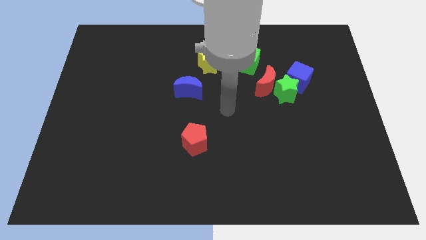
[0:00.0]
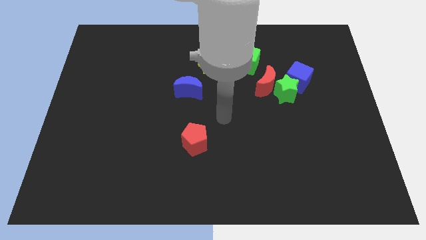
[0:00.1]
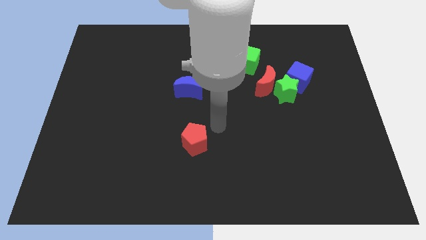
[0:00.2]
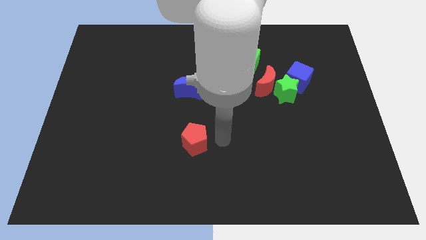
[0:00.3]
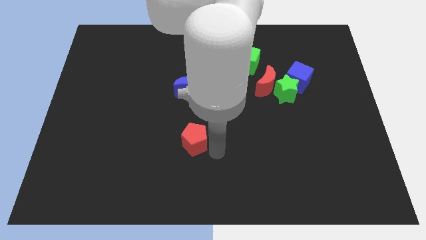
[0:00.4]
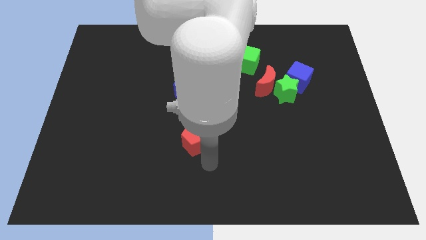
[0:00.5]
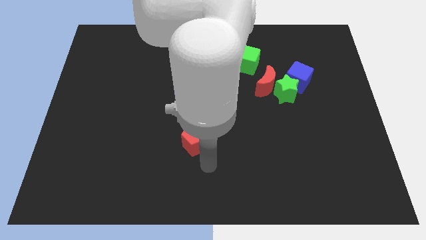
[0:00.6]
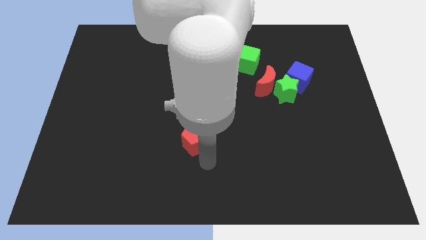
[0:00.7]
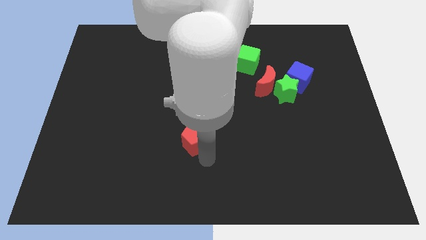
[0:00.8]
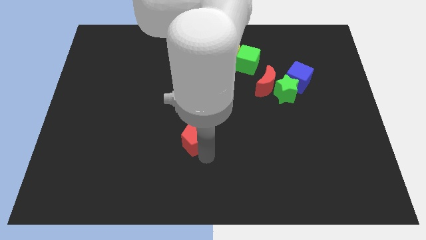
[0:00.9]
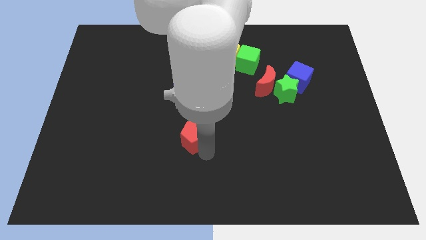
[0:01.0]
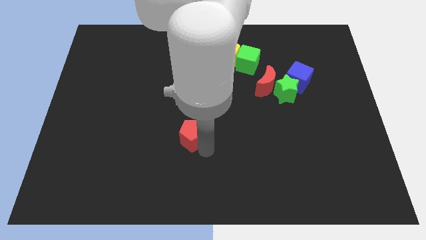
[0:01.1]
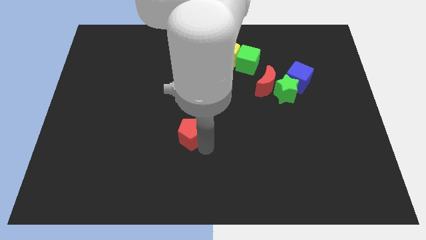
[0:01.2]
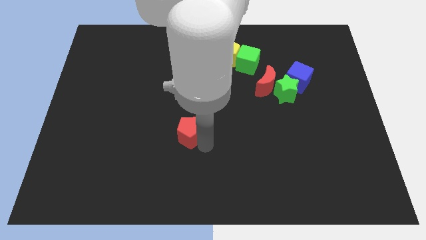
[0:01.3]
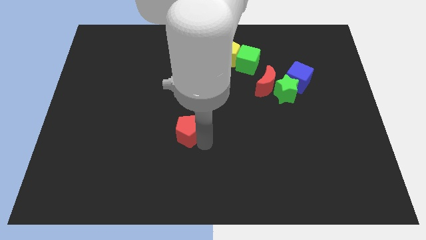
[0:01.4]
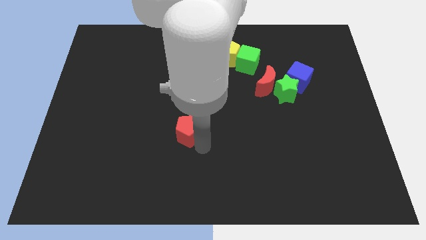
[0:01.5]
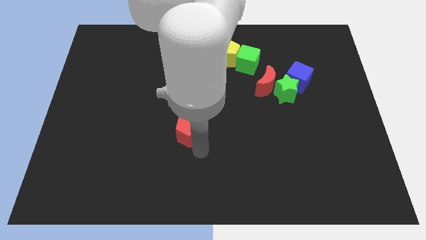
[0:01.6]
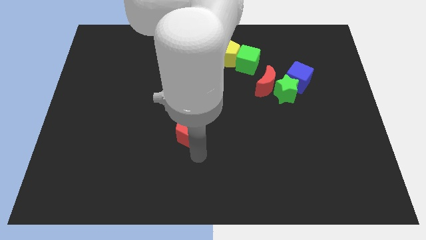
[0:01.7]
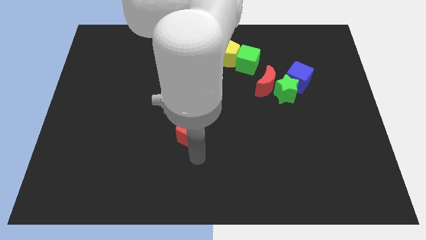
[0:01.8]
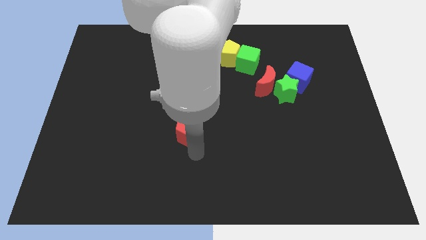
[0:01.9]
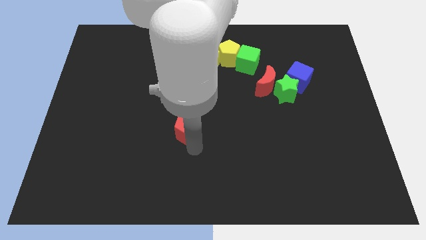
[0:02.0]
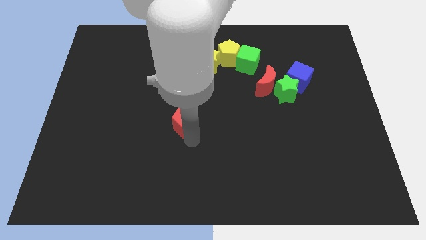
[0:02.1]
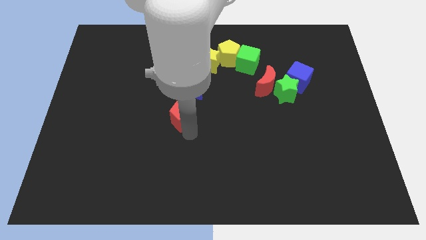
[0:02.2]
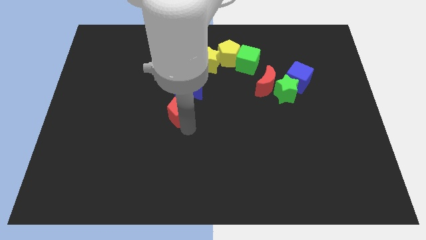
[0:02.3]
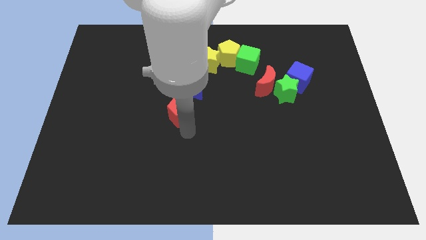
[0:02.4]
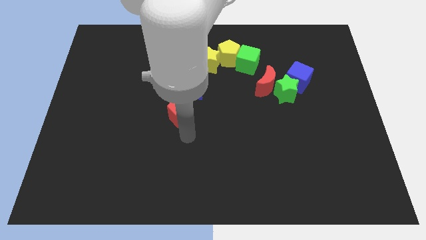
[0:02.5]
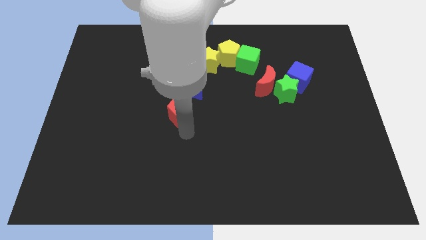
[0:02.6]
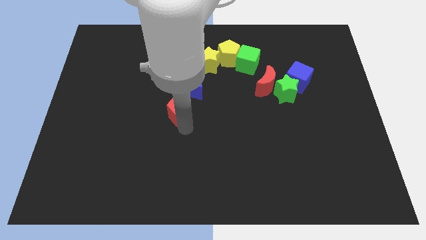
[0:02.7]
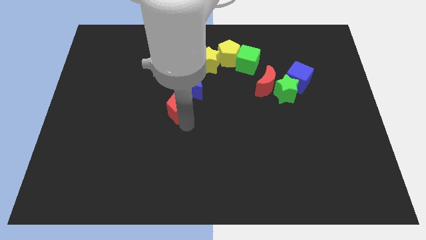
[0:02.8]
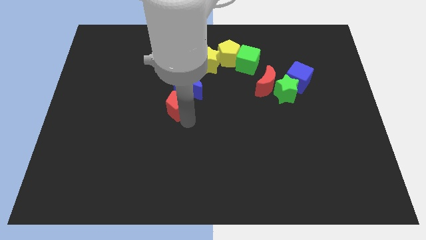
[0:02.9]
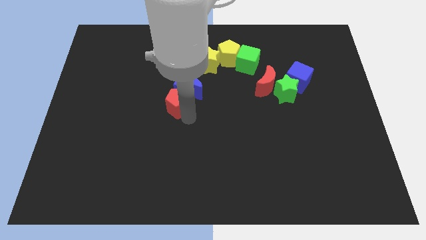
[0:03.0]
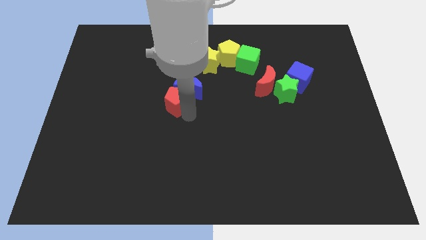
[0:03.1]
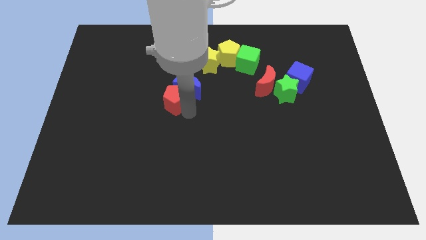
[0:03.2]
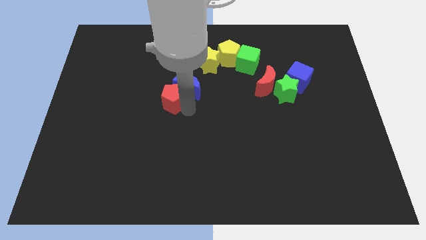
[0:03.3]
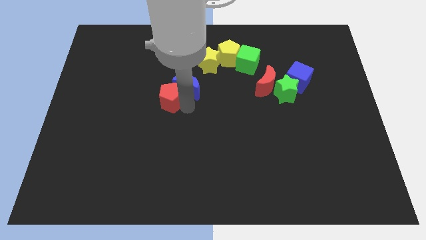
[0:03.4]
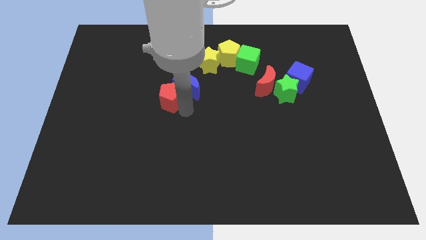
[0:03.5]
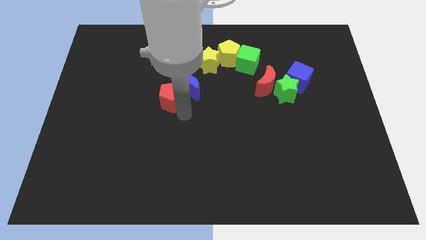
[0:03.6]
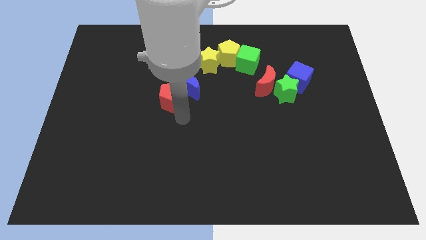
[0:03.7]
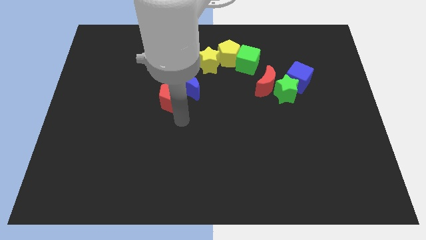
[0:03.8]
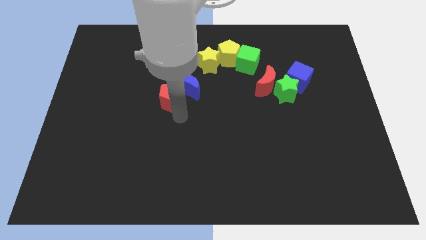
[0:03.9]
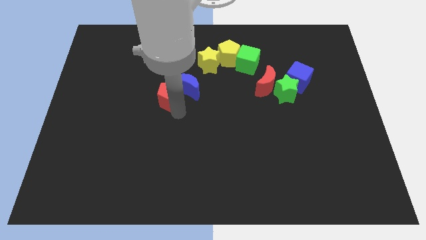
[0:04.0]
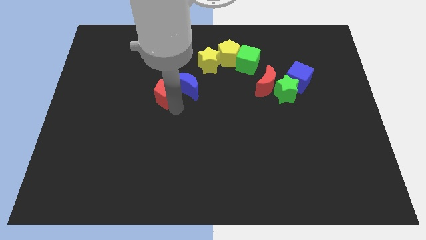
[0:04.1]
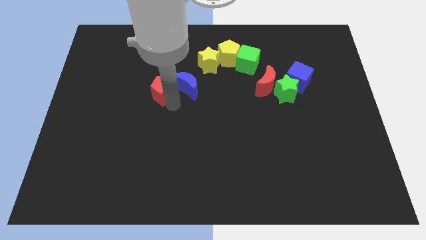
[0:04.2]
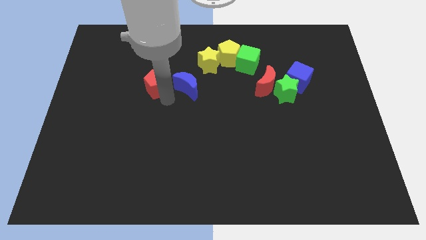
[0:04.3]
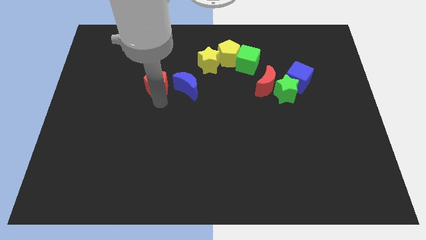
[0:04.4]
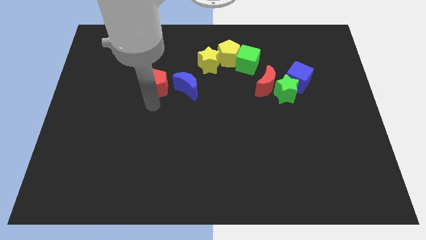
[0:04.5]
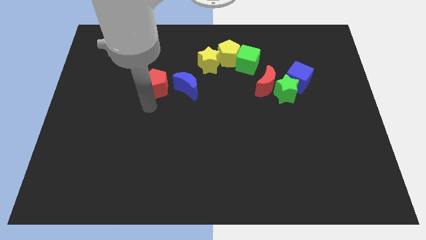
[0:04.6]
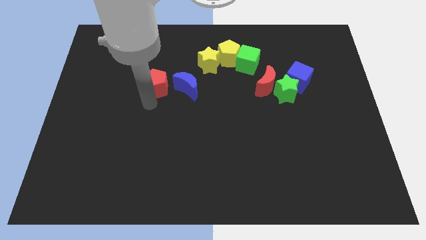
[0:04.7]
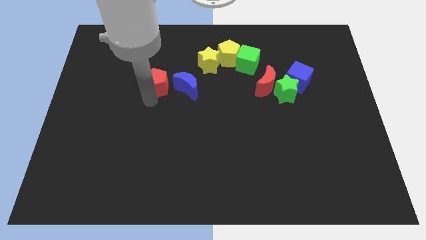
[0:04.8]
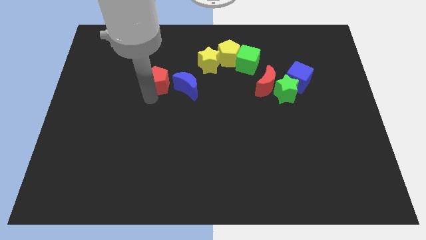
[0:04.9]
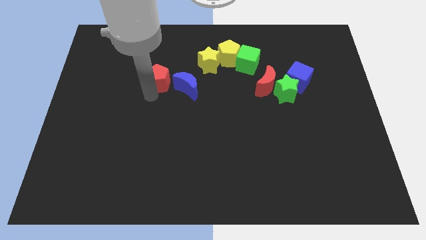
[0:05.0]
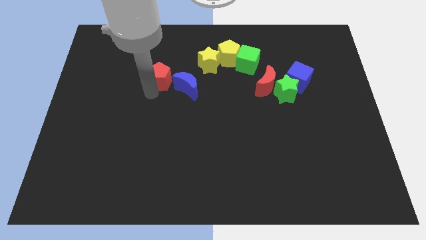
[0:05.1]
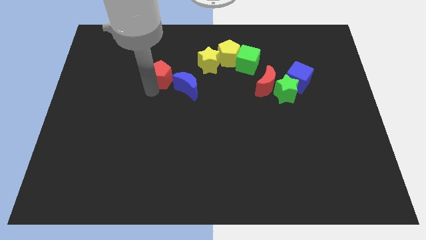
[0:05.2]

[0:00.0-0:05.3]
slide the red pentagon to the left side of the yellow star
